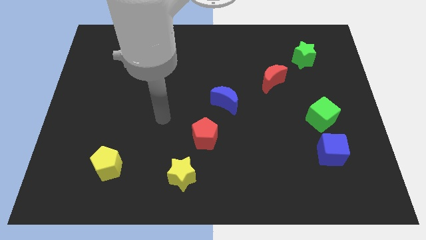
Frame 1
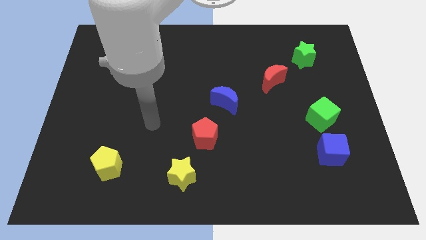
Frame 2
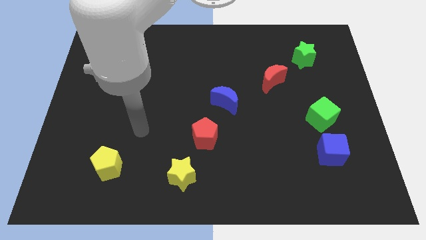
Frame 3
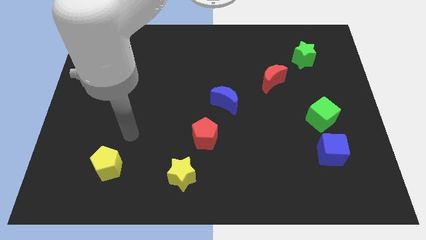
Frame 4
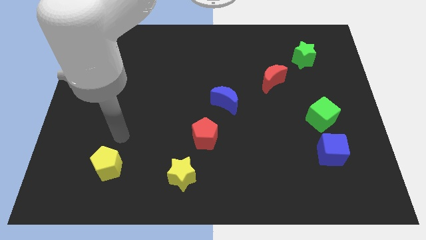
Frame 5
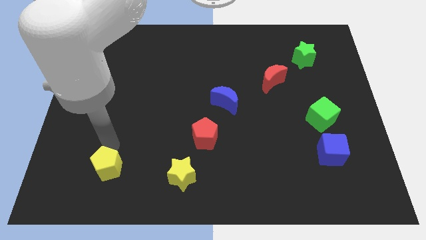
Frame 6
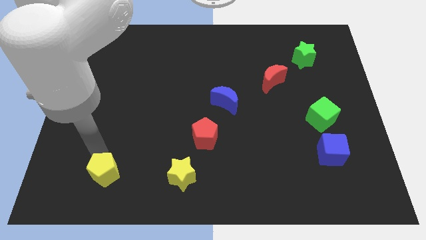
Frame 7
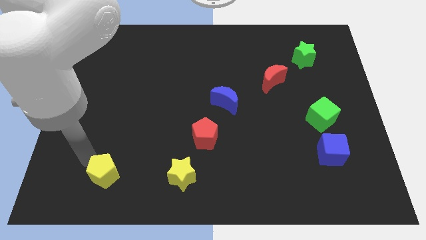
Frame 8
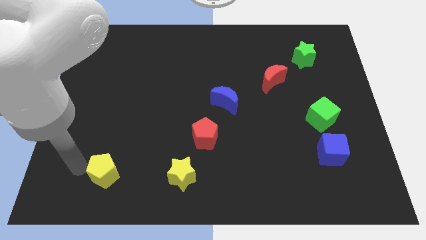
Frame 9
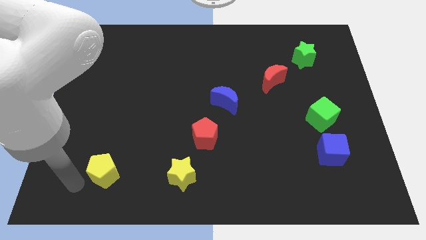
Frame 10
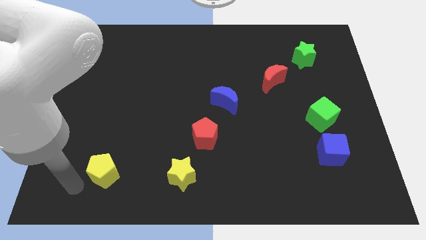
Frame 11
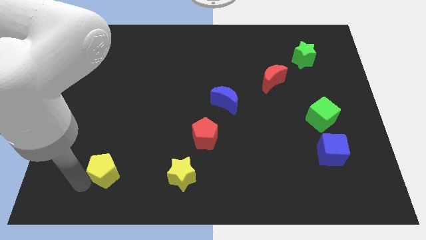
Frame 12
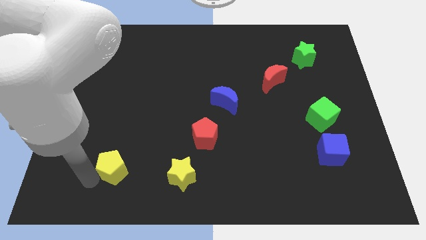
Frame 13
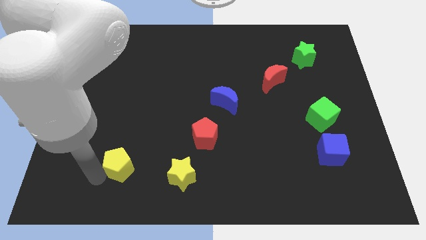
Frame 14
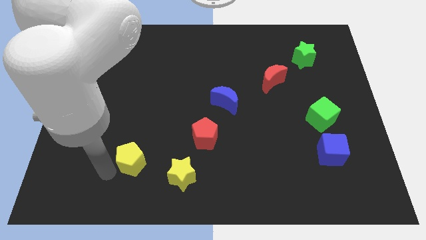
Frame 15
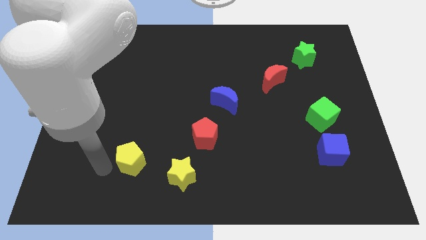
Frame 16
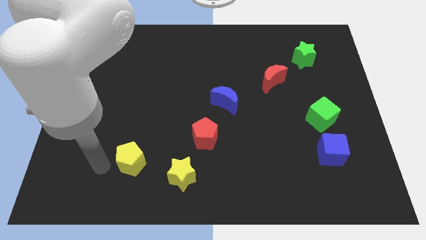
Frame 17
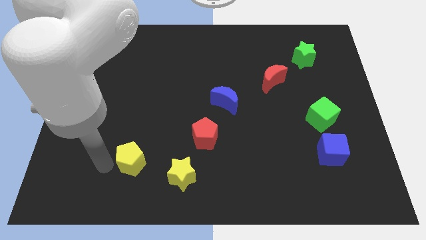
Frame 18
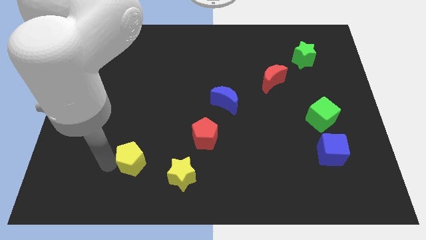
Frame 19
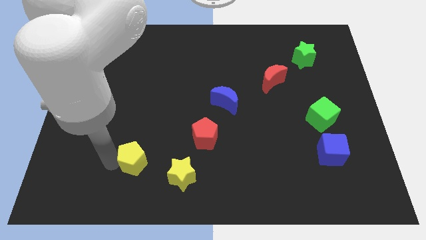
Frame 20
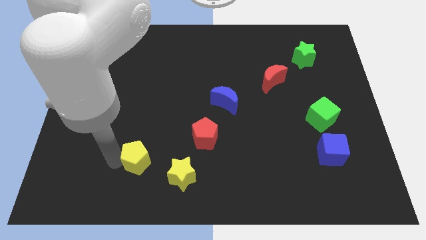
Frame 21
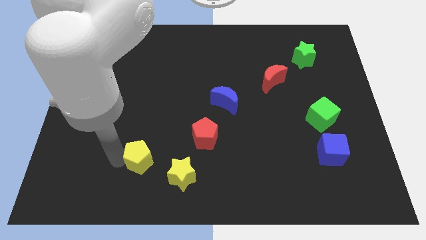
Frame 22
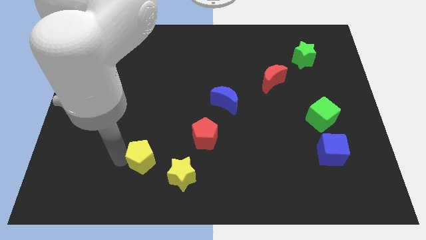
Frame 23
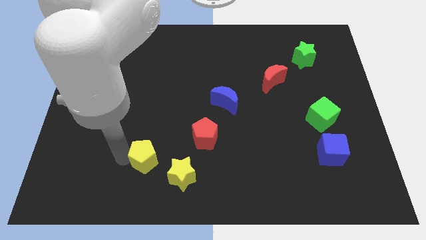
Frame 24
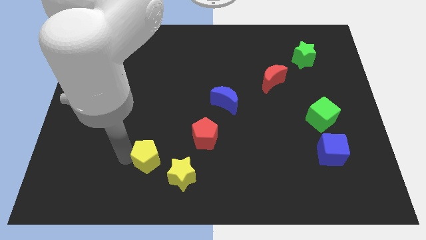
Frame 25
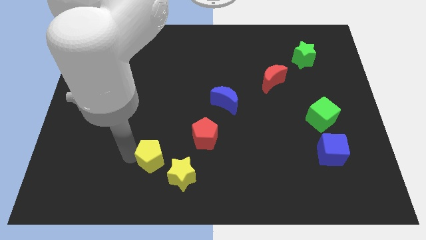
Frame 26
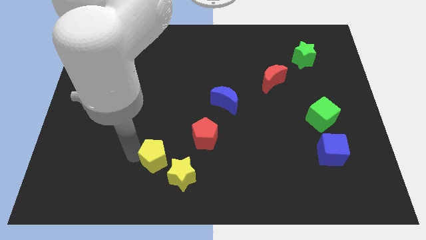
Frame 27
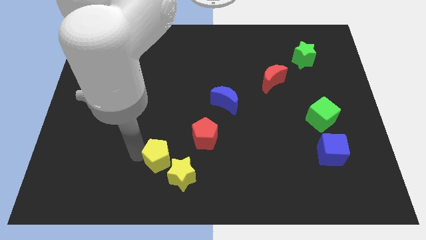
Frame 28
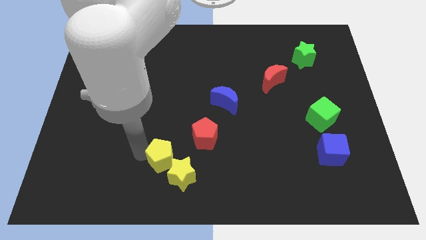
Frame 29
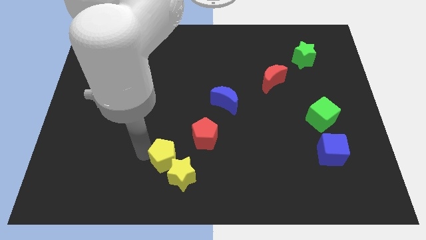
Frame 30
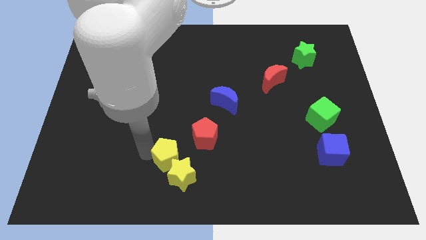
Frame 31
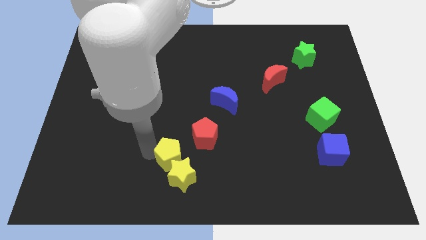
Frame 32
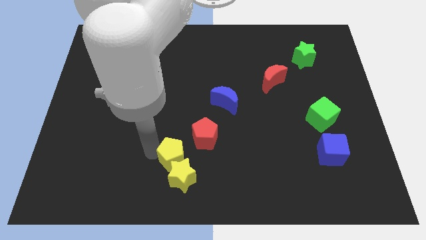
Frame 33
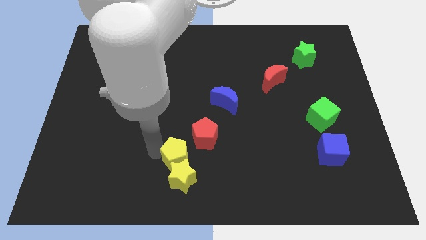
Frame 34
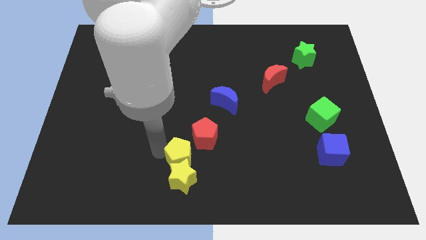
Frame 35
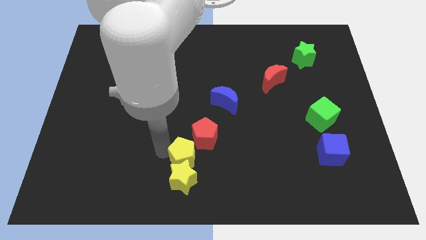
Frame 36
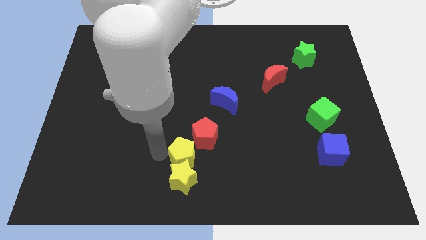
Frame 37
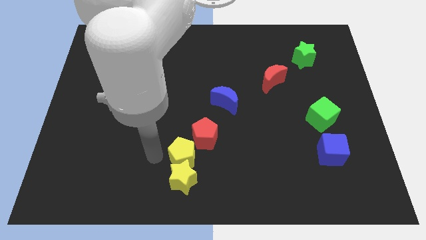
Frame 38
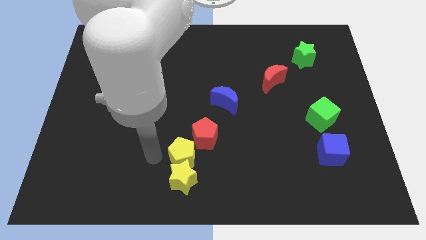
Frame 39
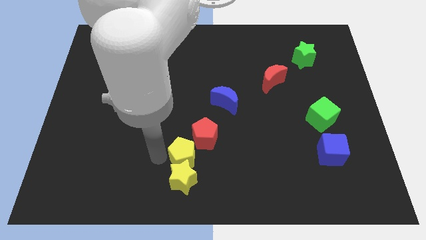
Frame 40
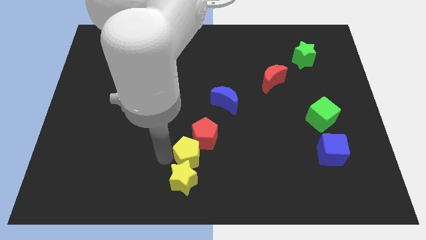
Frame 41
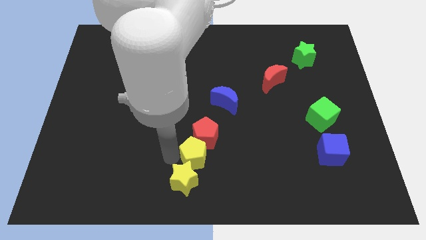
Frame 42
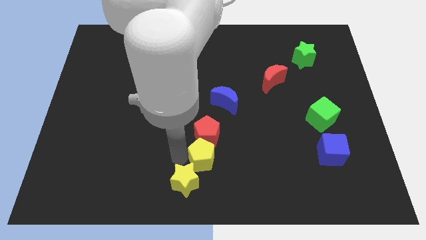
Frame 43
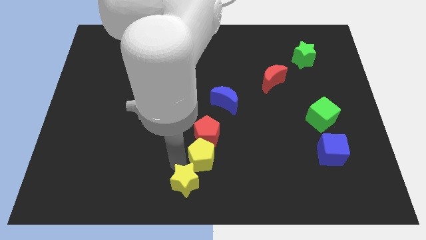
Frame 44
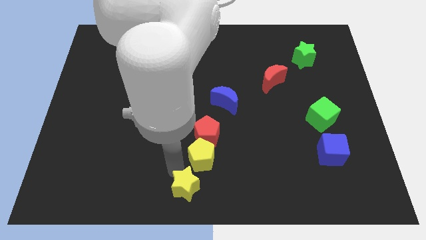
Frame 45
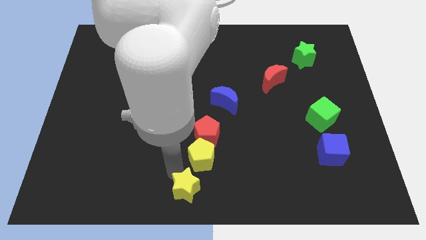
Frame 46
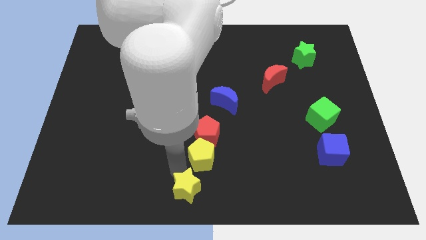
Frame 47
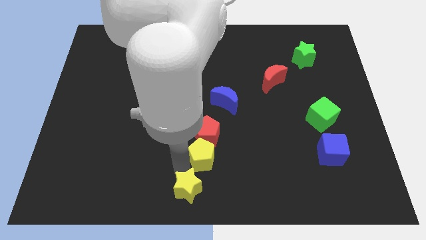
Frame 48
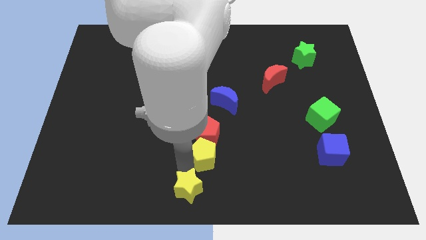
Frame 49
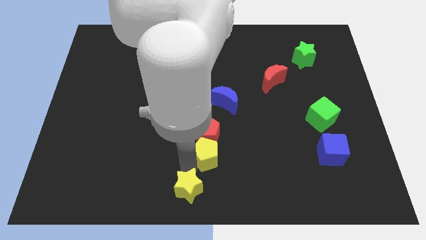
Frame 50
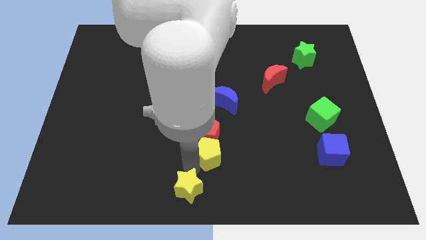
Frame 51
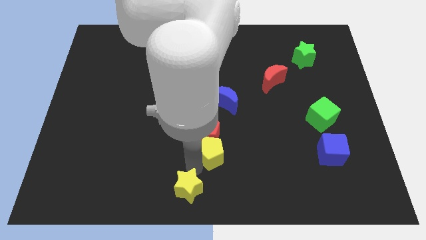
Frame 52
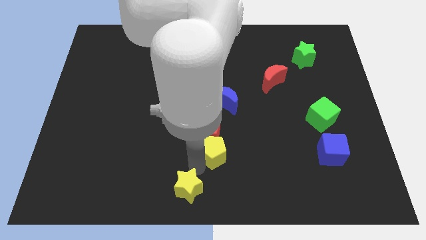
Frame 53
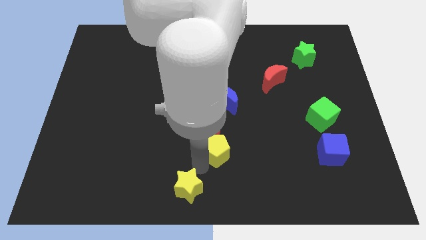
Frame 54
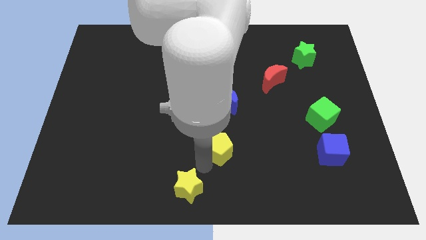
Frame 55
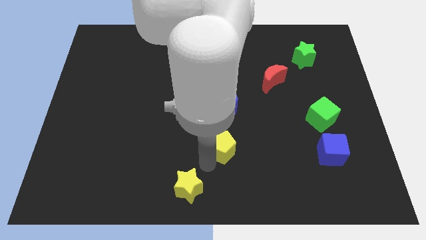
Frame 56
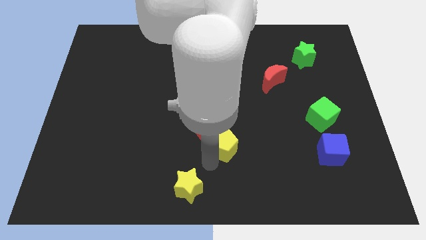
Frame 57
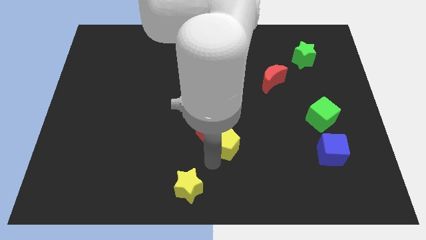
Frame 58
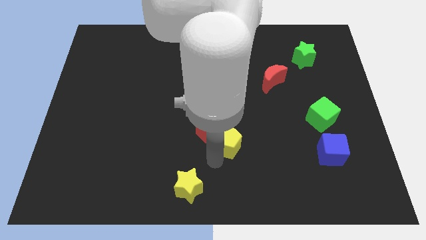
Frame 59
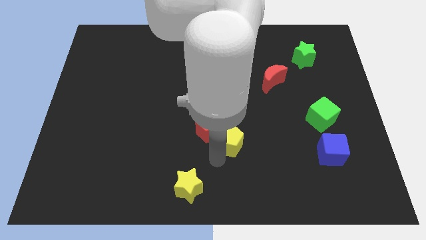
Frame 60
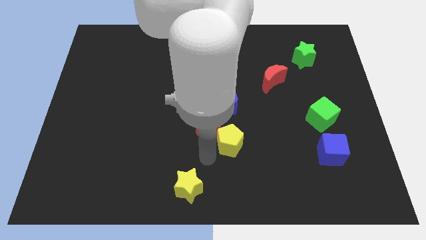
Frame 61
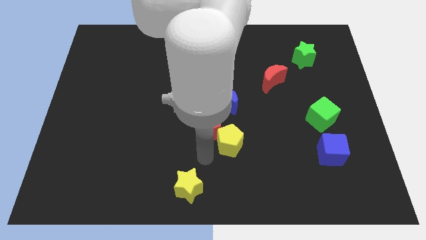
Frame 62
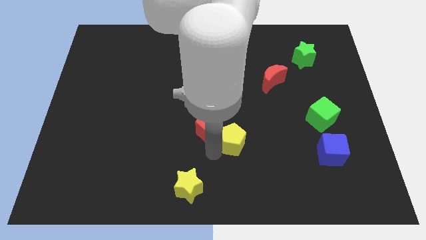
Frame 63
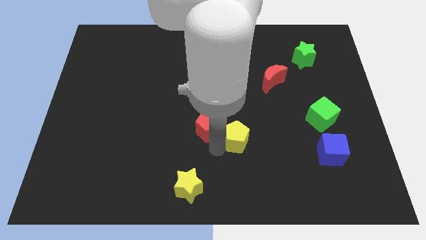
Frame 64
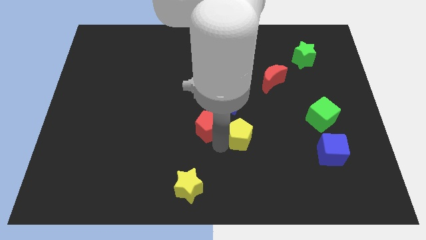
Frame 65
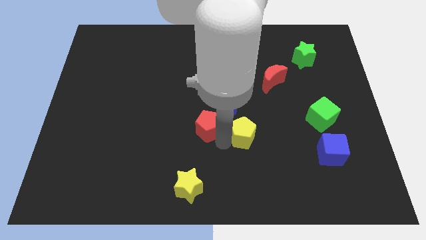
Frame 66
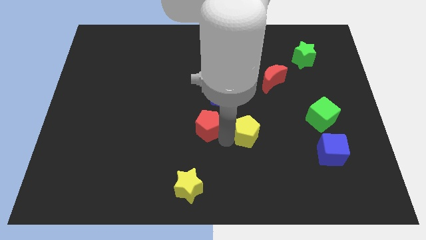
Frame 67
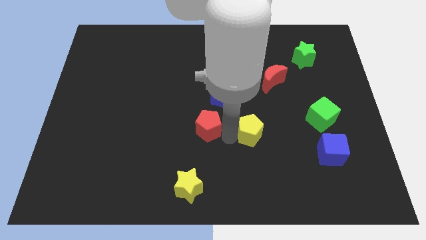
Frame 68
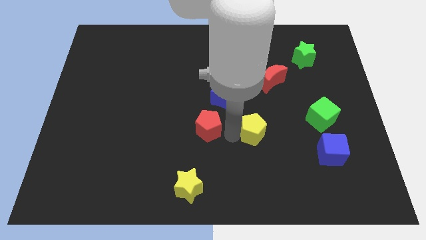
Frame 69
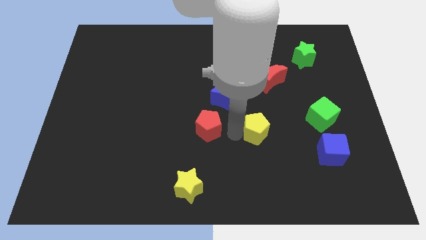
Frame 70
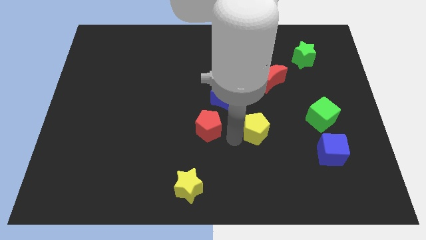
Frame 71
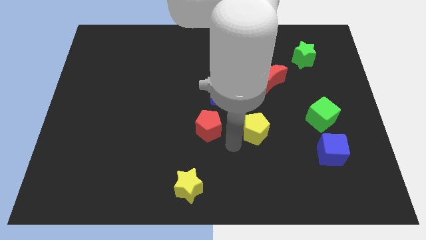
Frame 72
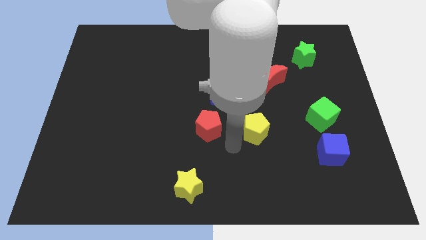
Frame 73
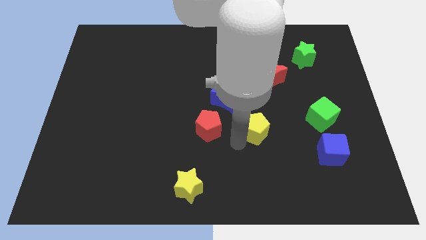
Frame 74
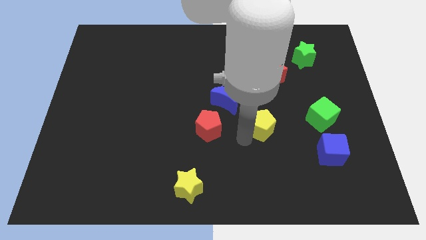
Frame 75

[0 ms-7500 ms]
push the yellow pentagon to the left of the green cube
